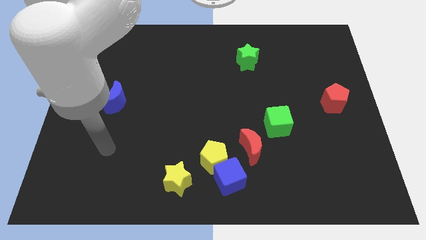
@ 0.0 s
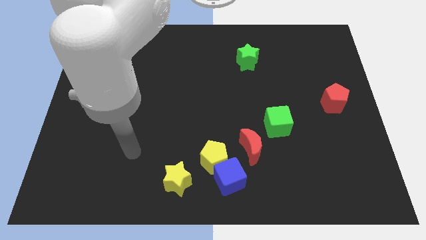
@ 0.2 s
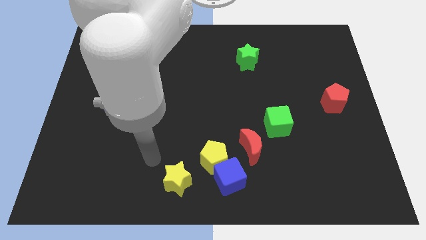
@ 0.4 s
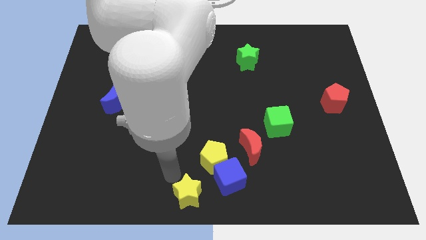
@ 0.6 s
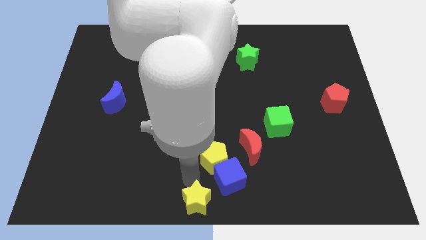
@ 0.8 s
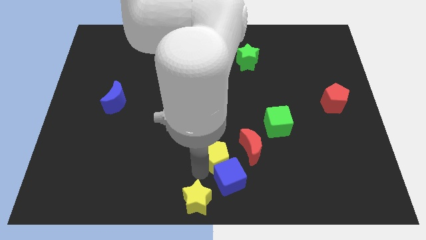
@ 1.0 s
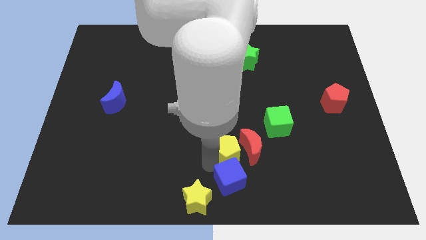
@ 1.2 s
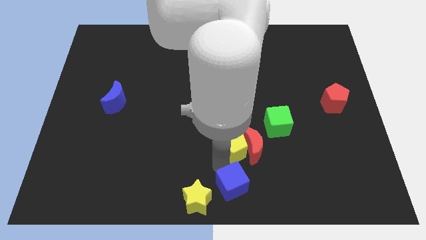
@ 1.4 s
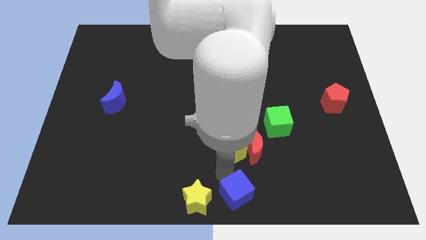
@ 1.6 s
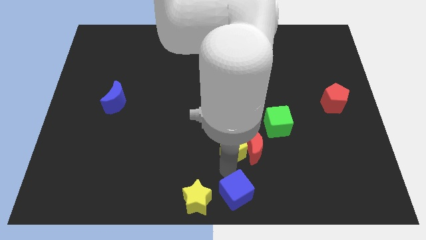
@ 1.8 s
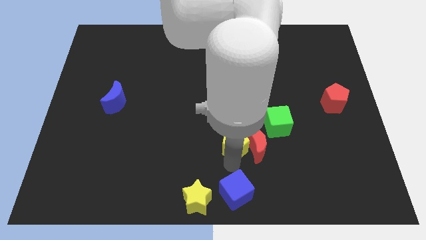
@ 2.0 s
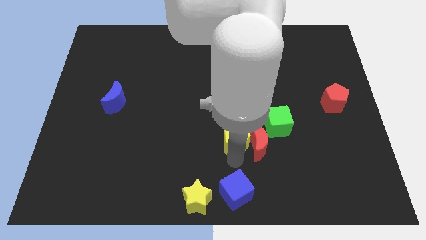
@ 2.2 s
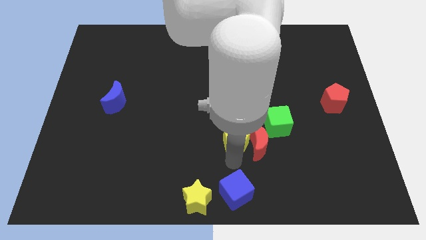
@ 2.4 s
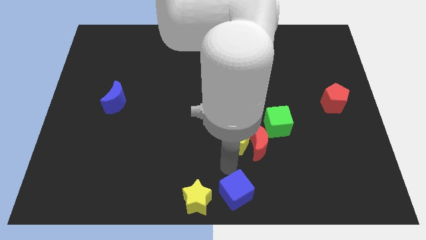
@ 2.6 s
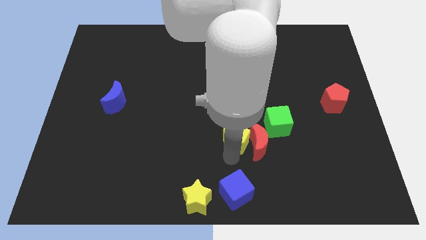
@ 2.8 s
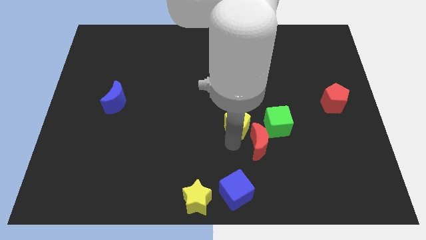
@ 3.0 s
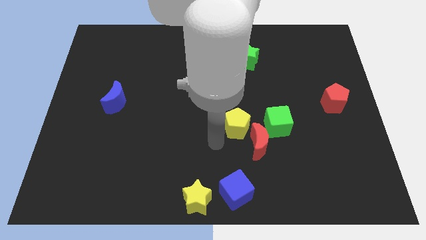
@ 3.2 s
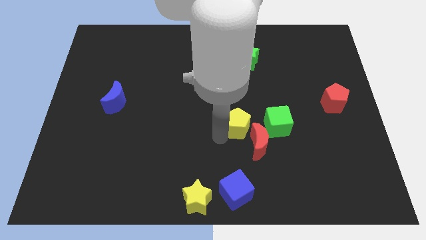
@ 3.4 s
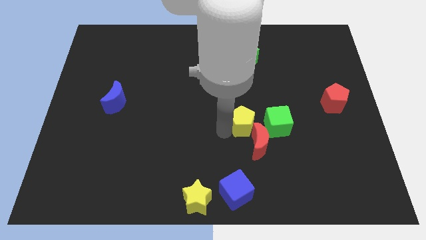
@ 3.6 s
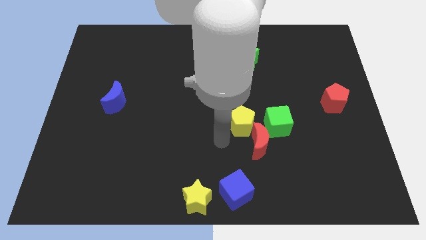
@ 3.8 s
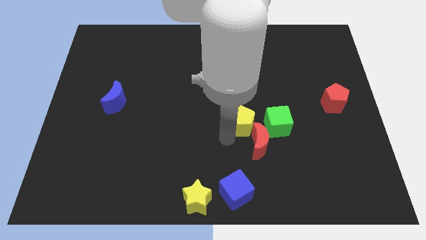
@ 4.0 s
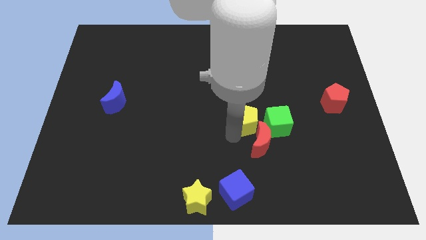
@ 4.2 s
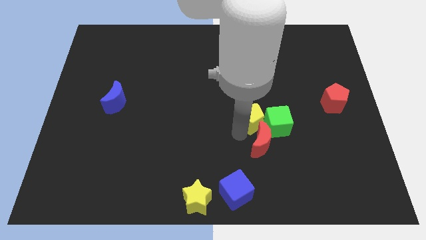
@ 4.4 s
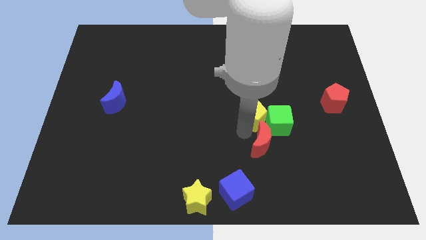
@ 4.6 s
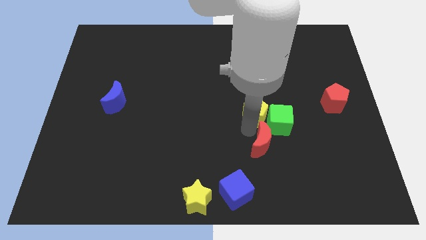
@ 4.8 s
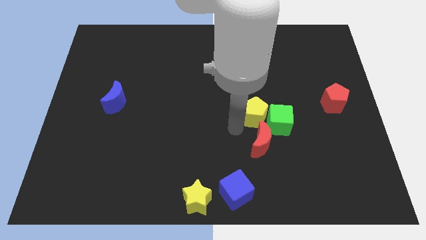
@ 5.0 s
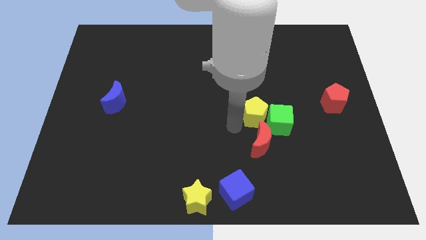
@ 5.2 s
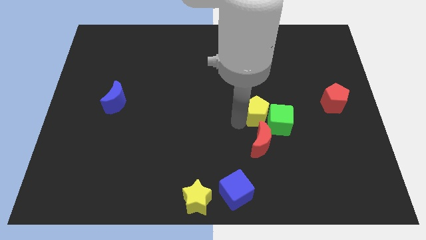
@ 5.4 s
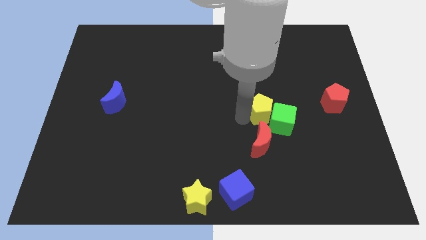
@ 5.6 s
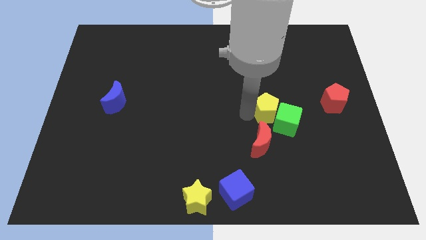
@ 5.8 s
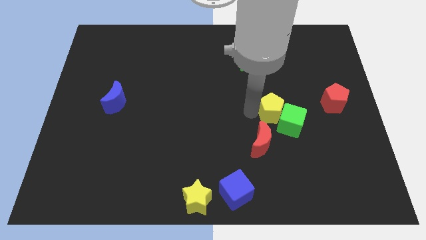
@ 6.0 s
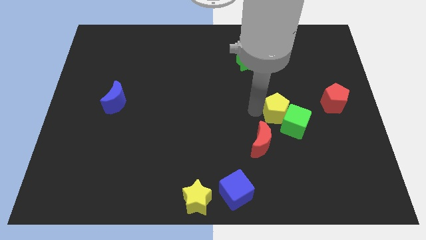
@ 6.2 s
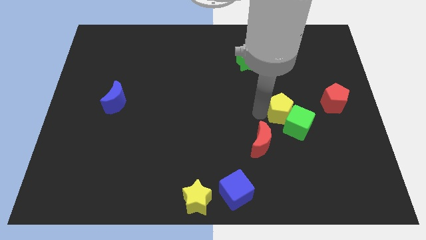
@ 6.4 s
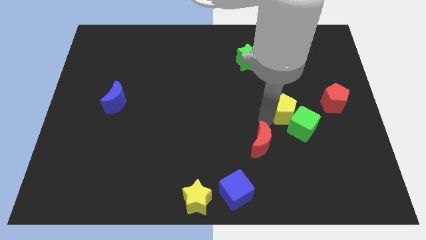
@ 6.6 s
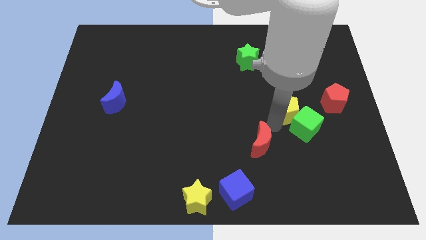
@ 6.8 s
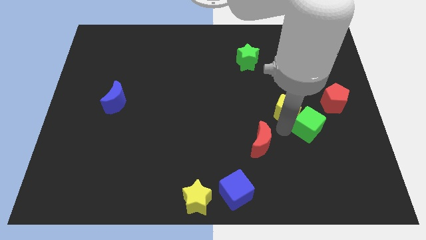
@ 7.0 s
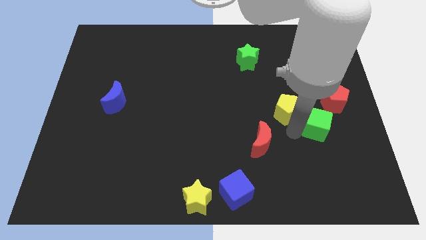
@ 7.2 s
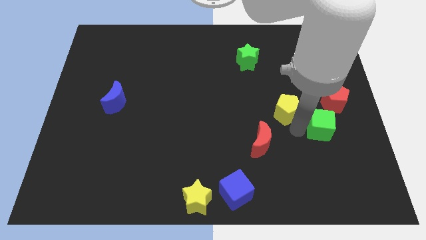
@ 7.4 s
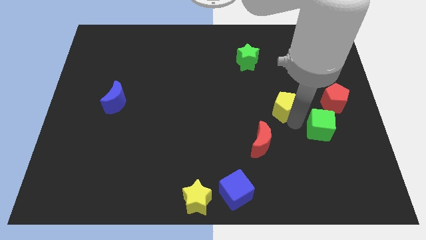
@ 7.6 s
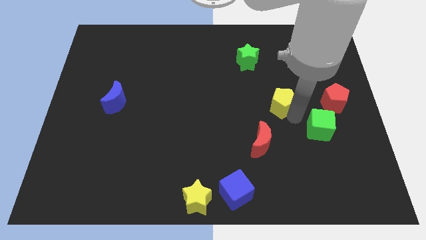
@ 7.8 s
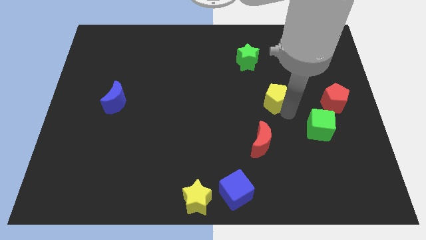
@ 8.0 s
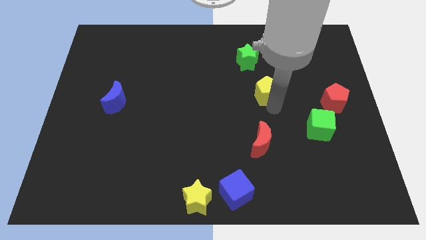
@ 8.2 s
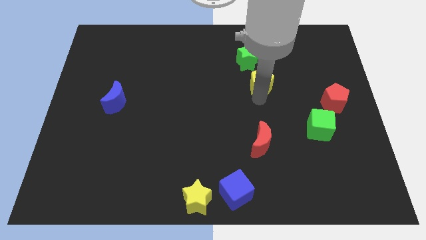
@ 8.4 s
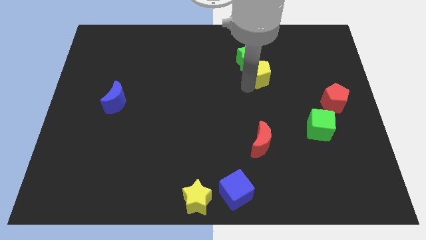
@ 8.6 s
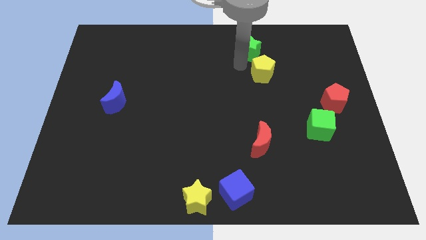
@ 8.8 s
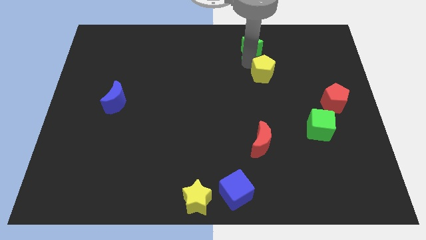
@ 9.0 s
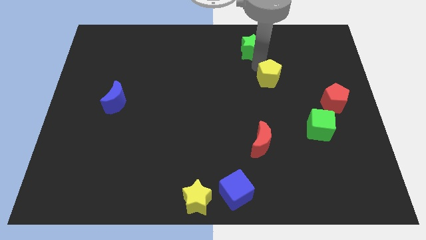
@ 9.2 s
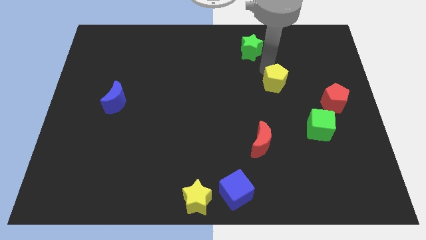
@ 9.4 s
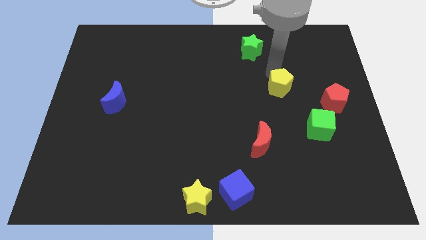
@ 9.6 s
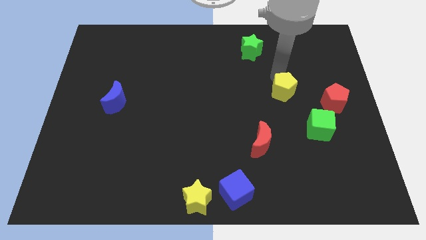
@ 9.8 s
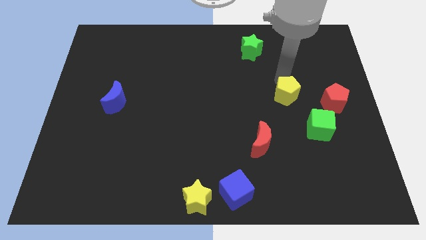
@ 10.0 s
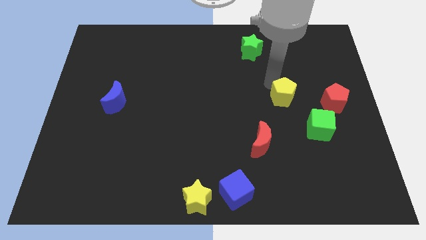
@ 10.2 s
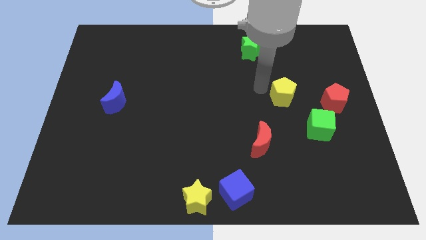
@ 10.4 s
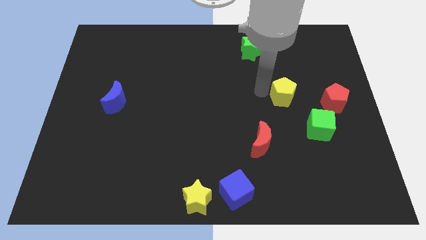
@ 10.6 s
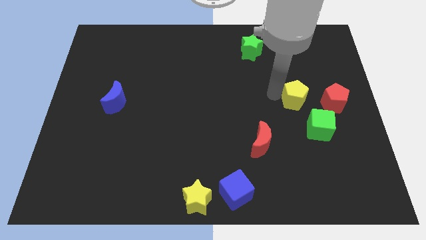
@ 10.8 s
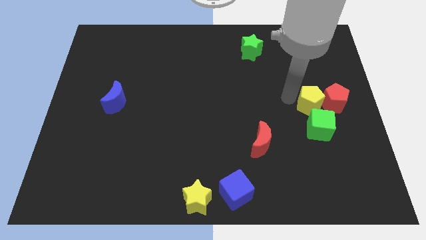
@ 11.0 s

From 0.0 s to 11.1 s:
push the yellow pentagon next to the red pentagon

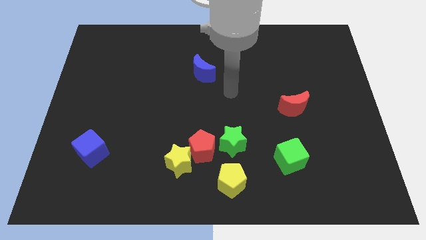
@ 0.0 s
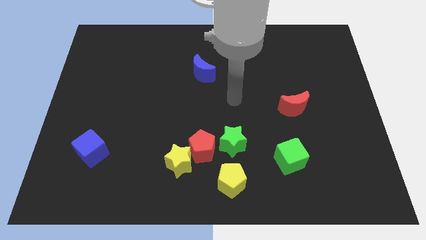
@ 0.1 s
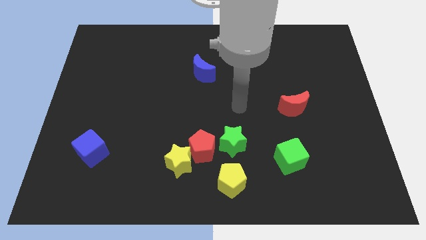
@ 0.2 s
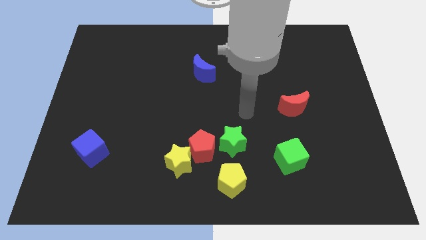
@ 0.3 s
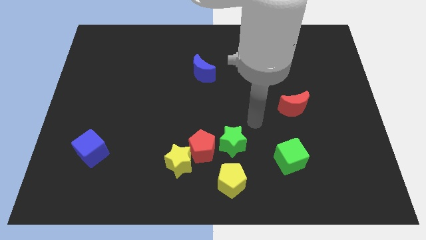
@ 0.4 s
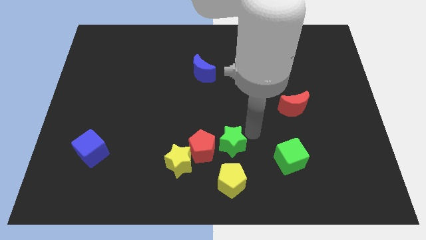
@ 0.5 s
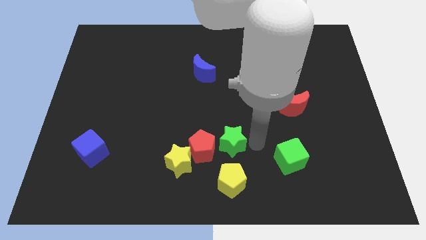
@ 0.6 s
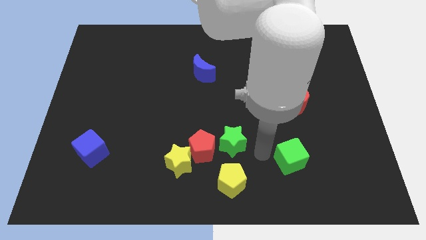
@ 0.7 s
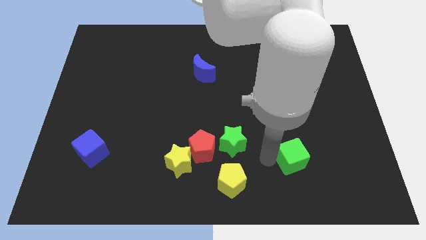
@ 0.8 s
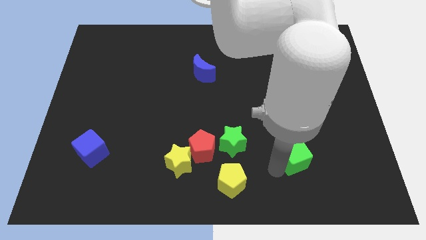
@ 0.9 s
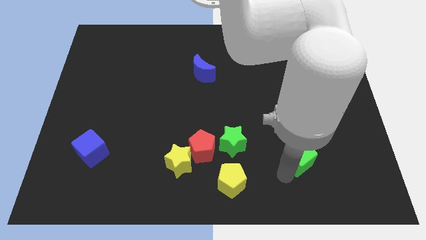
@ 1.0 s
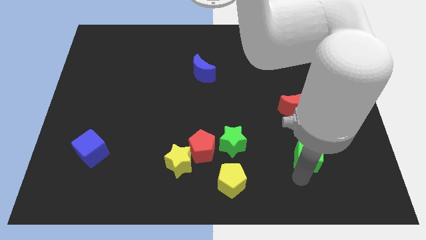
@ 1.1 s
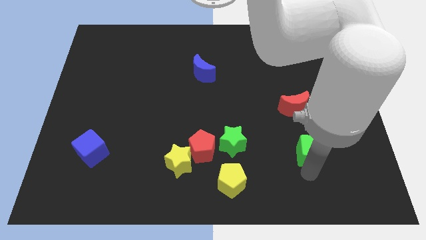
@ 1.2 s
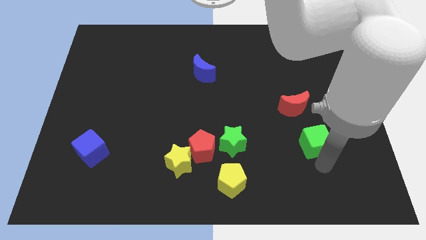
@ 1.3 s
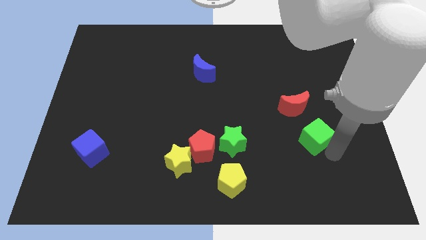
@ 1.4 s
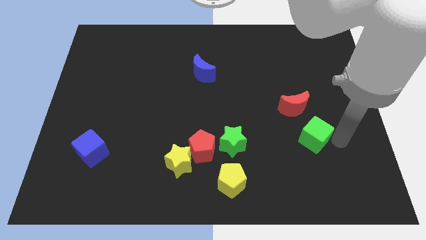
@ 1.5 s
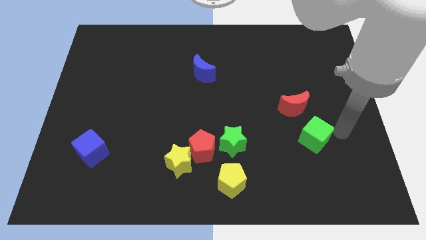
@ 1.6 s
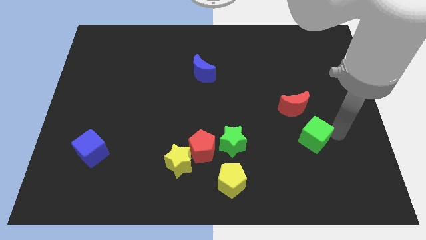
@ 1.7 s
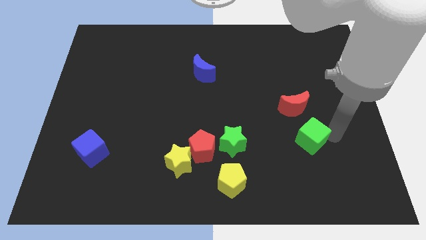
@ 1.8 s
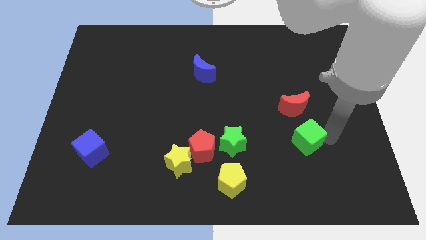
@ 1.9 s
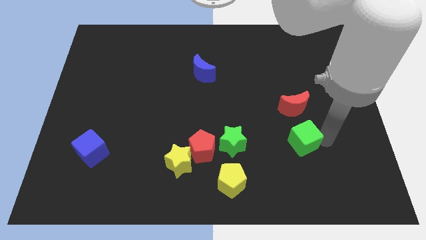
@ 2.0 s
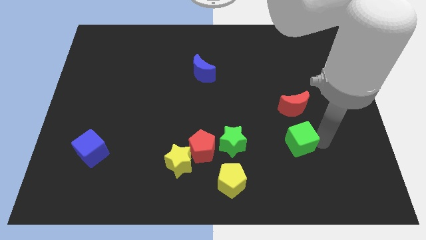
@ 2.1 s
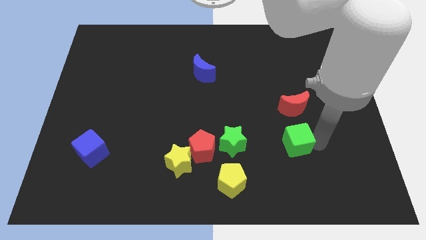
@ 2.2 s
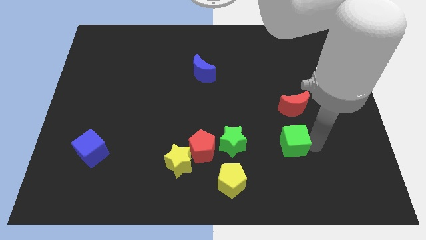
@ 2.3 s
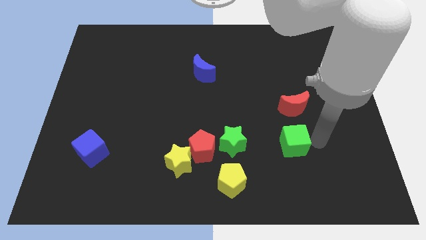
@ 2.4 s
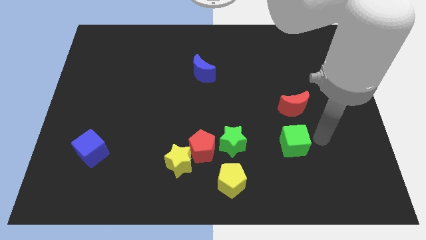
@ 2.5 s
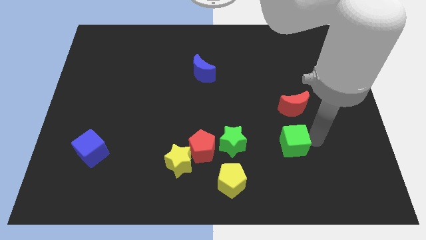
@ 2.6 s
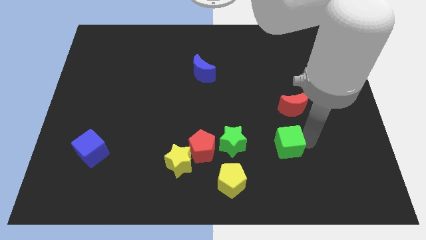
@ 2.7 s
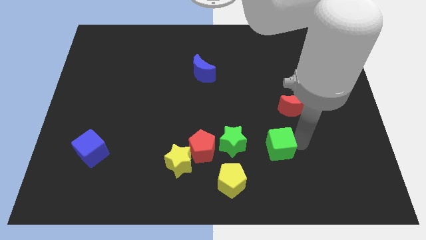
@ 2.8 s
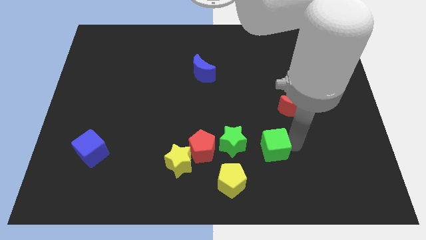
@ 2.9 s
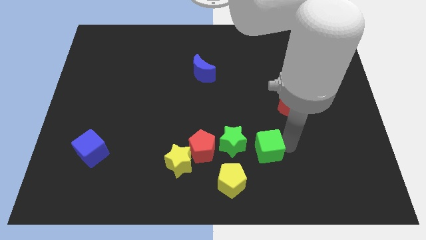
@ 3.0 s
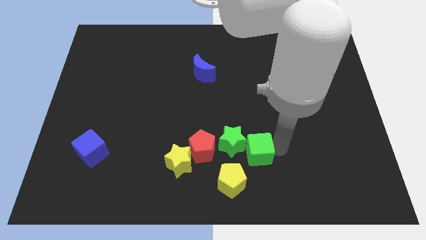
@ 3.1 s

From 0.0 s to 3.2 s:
put the green cube to the green star
